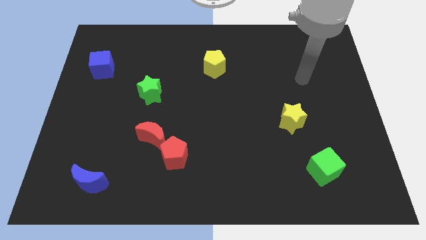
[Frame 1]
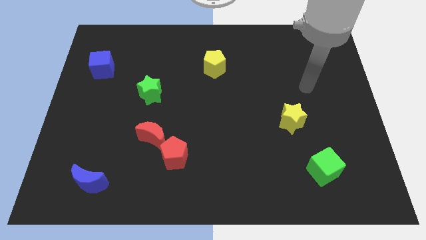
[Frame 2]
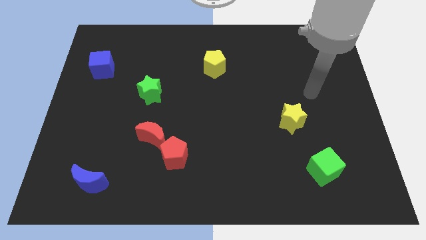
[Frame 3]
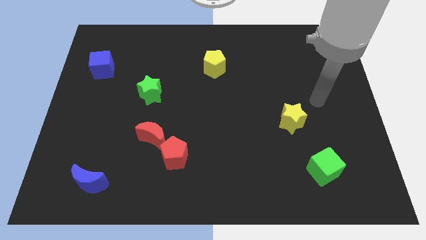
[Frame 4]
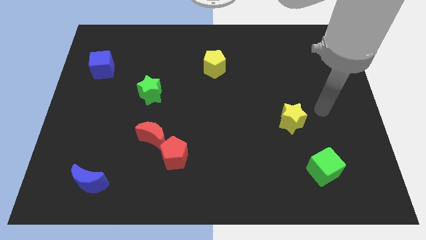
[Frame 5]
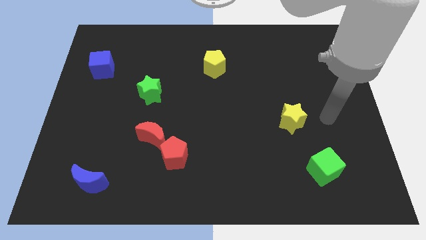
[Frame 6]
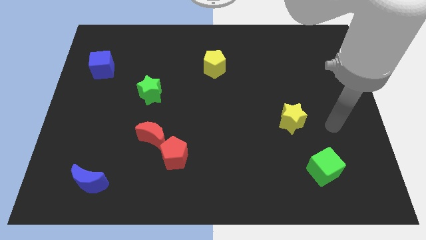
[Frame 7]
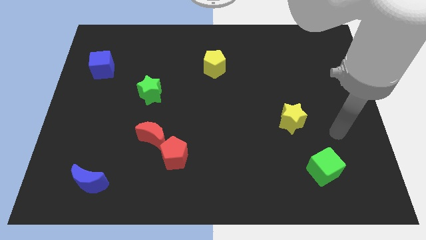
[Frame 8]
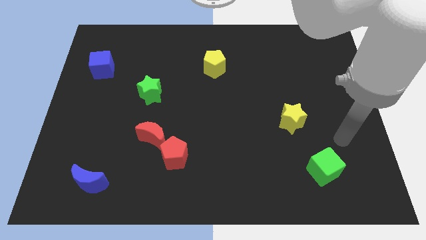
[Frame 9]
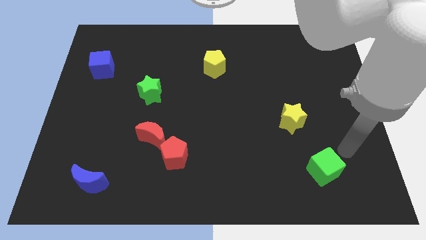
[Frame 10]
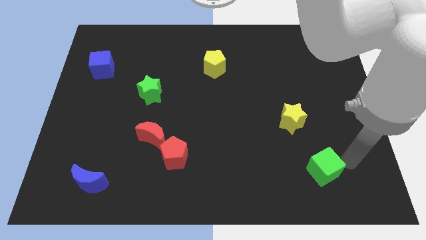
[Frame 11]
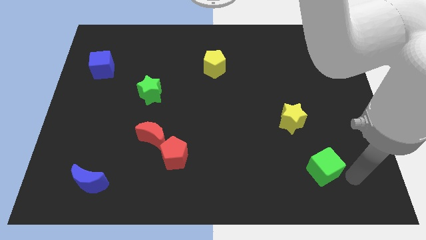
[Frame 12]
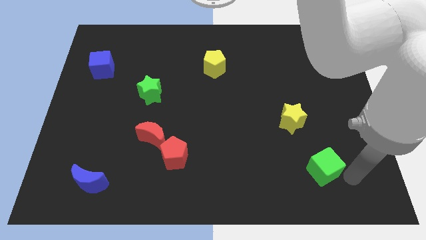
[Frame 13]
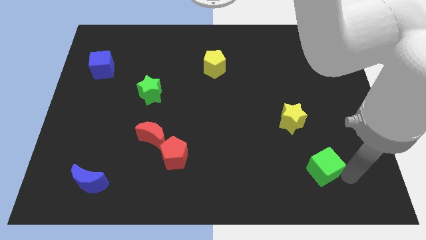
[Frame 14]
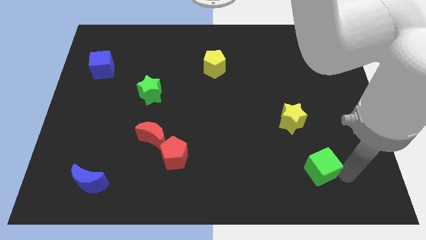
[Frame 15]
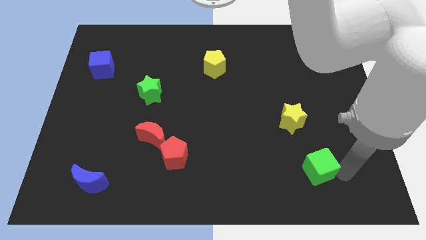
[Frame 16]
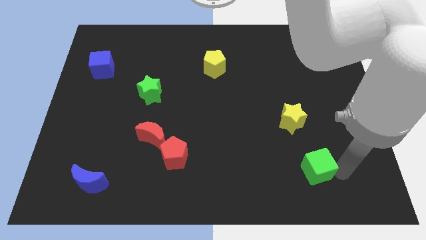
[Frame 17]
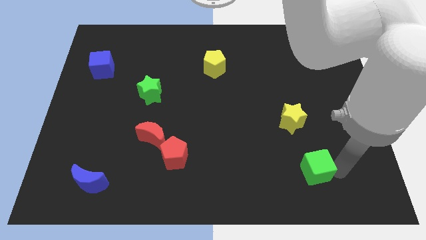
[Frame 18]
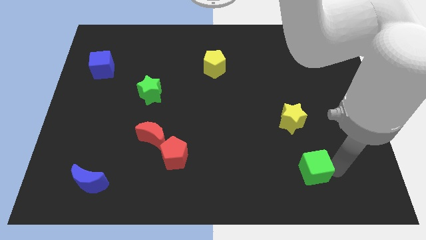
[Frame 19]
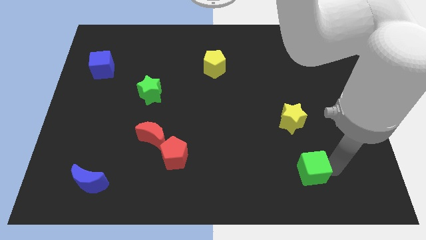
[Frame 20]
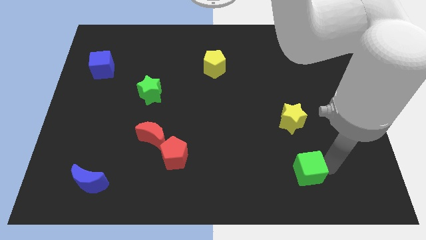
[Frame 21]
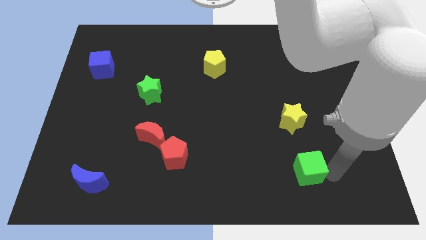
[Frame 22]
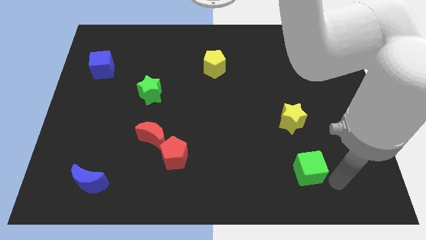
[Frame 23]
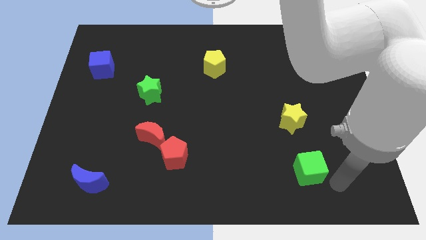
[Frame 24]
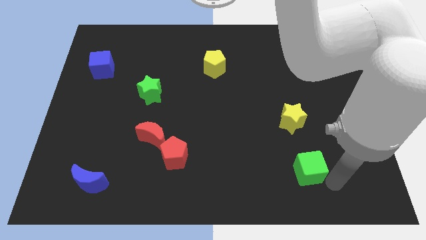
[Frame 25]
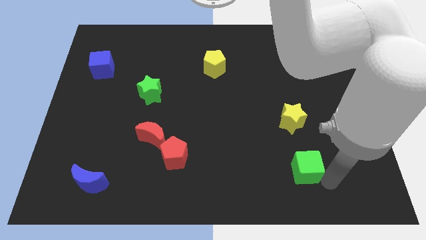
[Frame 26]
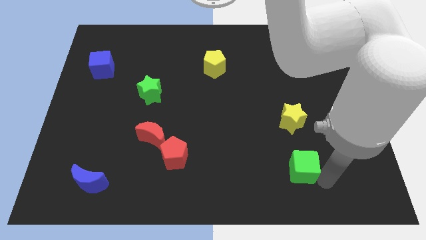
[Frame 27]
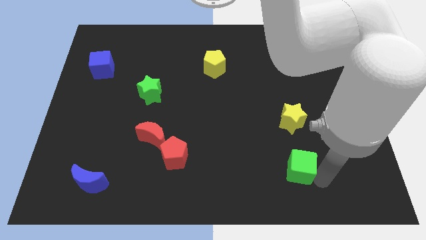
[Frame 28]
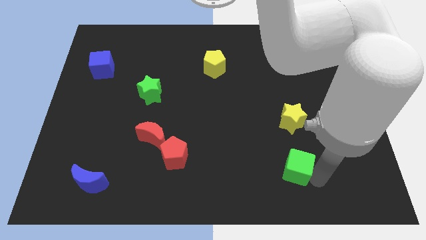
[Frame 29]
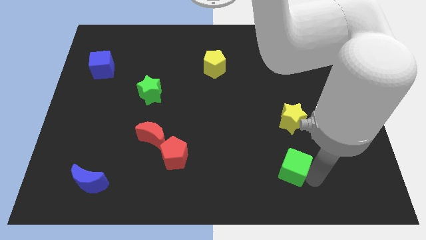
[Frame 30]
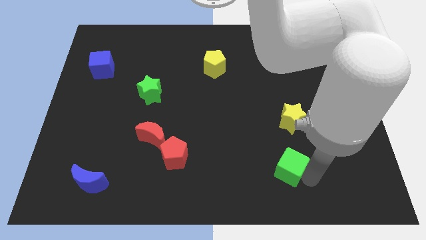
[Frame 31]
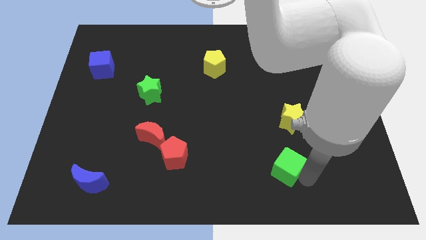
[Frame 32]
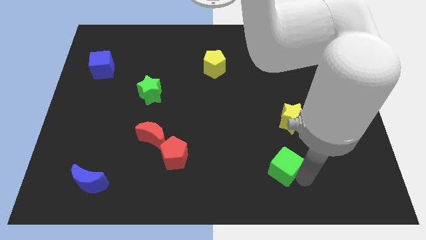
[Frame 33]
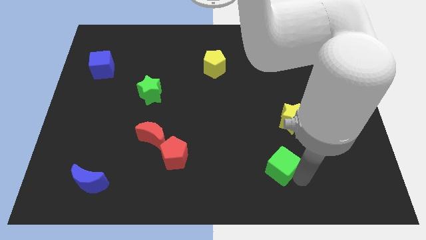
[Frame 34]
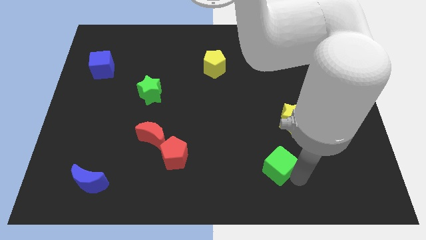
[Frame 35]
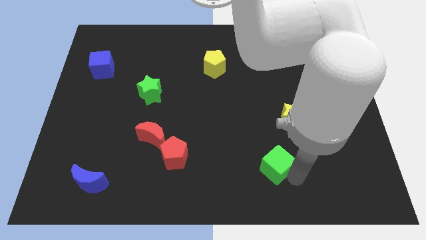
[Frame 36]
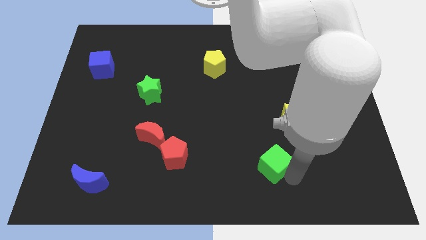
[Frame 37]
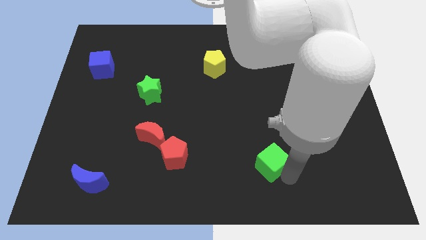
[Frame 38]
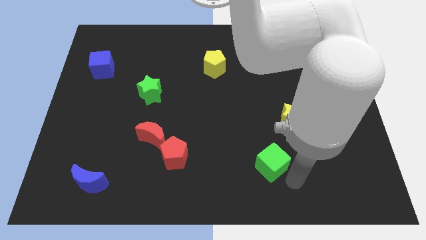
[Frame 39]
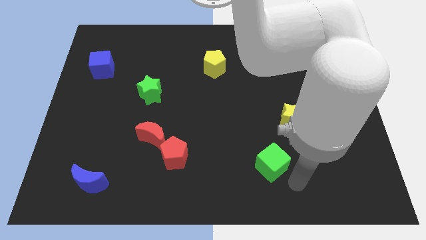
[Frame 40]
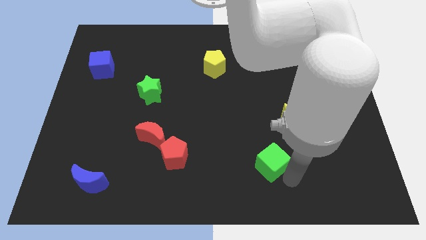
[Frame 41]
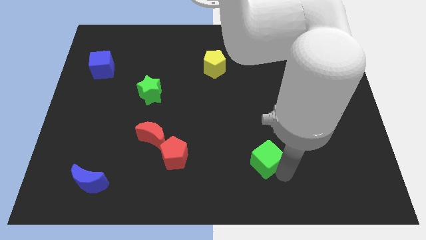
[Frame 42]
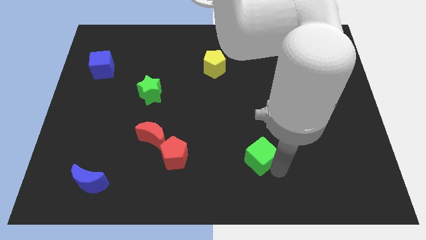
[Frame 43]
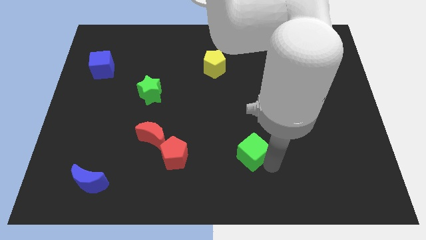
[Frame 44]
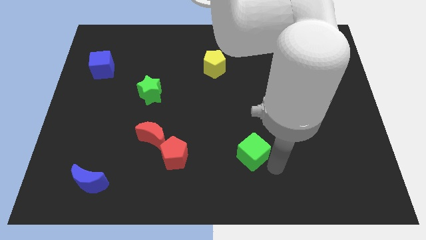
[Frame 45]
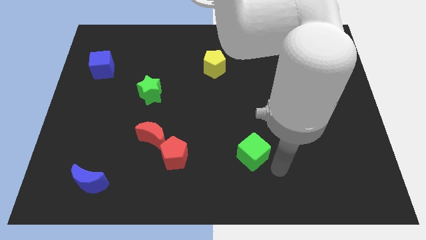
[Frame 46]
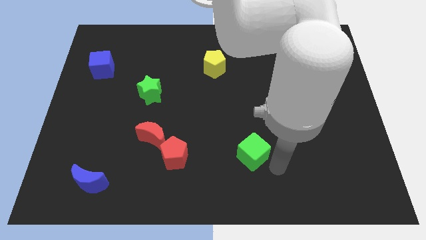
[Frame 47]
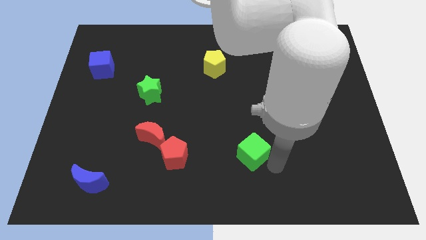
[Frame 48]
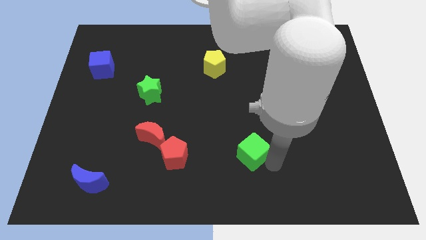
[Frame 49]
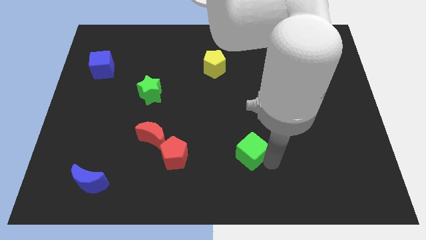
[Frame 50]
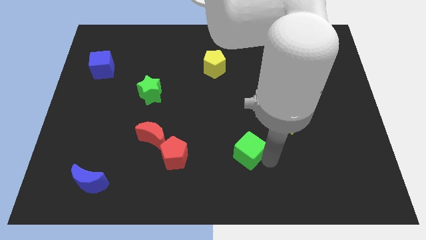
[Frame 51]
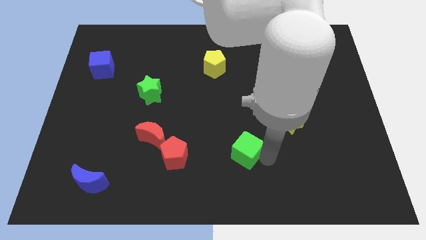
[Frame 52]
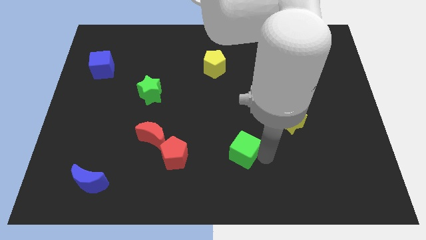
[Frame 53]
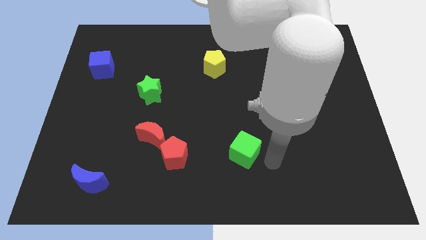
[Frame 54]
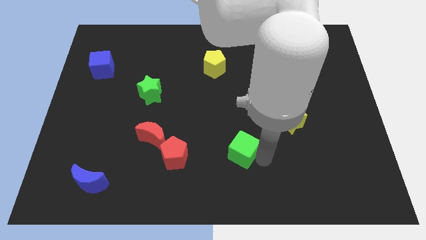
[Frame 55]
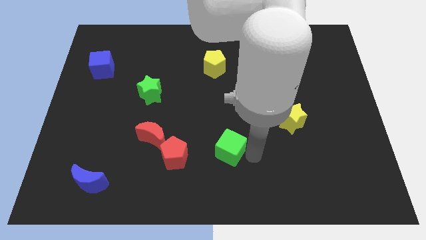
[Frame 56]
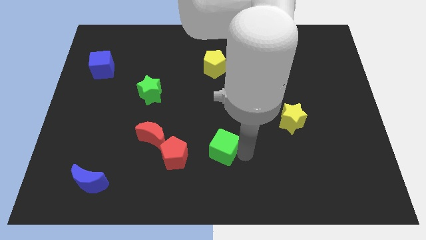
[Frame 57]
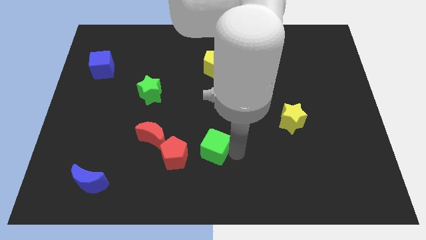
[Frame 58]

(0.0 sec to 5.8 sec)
push the green cube diagonally up and to the right of the red pentagon

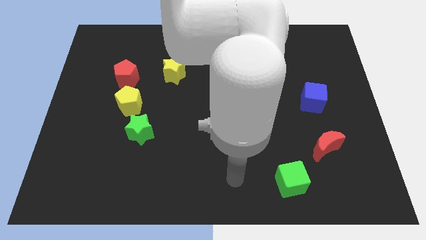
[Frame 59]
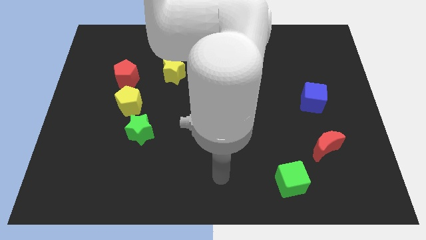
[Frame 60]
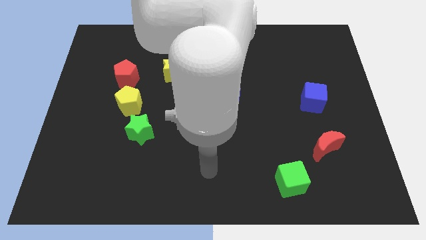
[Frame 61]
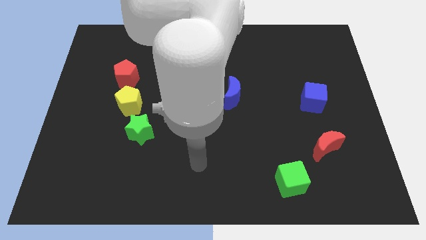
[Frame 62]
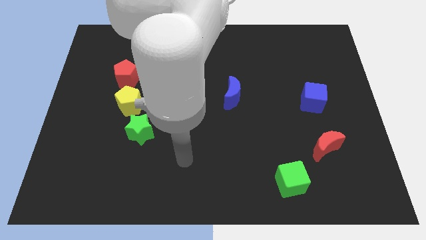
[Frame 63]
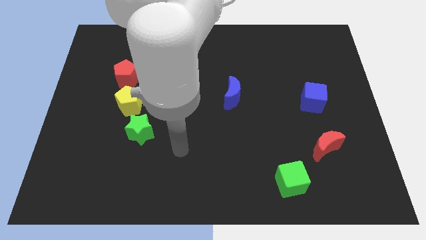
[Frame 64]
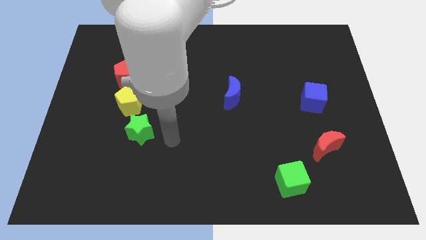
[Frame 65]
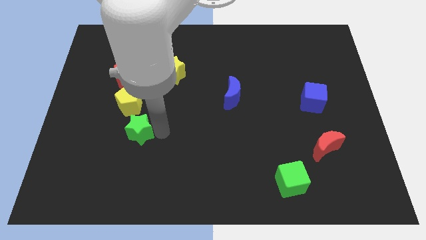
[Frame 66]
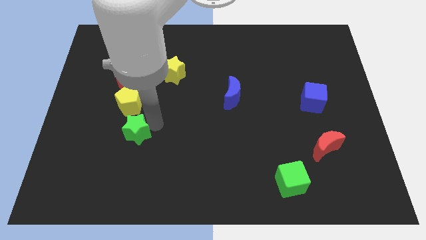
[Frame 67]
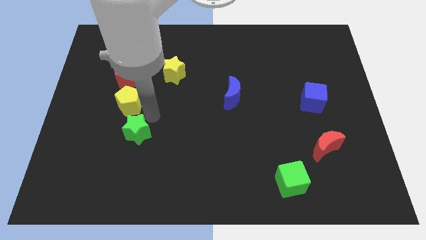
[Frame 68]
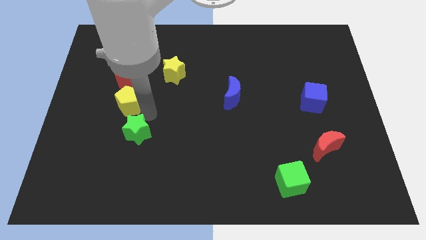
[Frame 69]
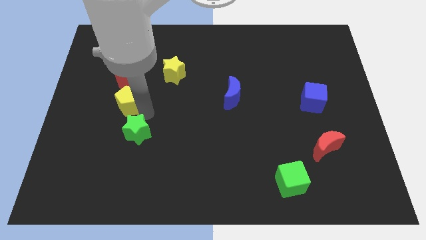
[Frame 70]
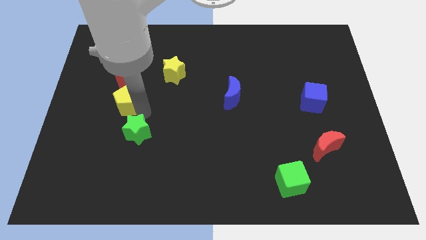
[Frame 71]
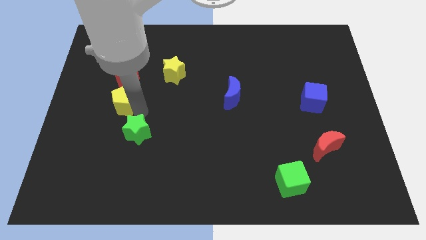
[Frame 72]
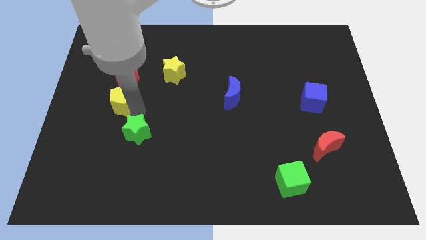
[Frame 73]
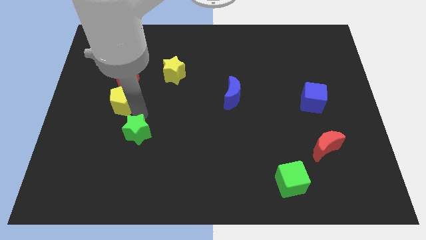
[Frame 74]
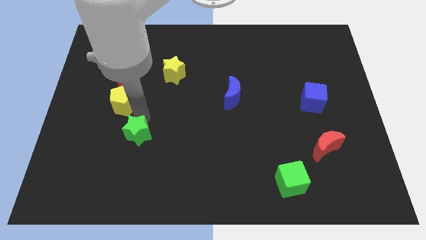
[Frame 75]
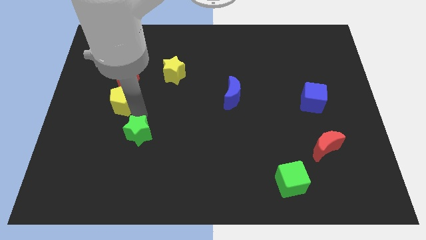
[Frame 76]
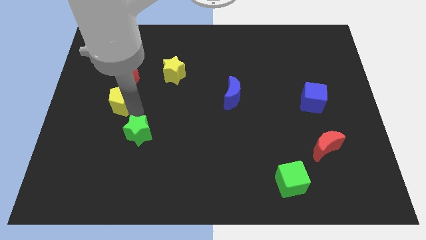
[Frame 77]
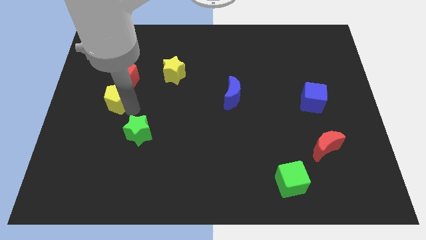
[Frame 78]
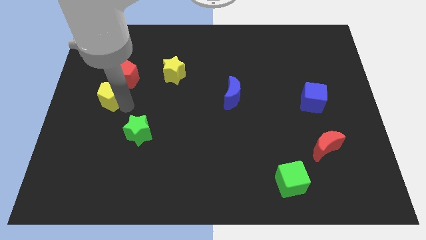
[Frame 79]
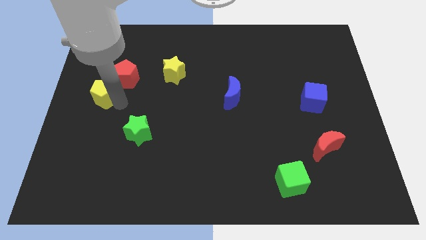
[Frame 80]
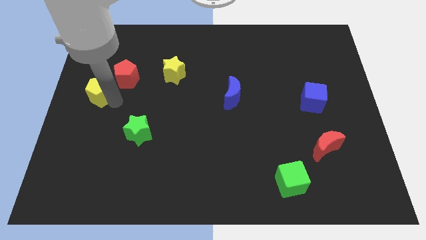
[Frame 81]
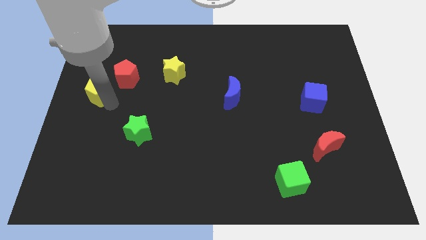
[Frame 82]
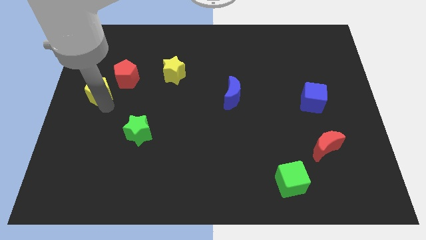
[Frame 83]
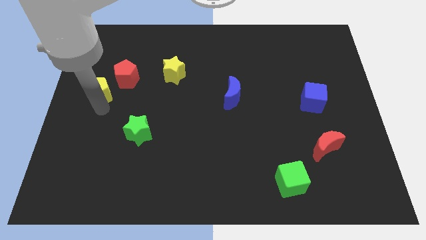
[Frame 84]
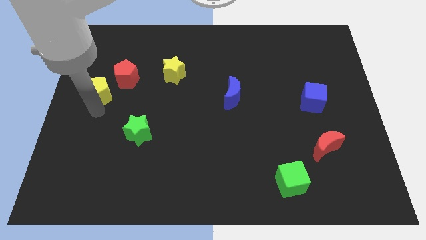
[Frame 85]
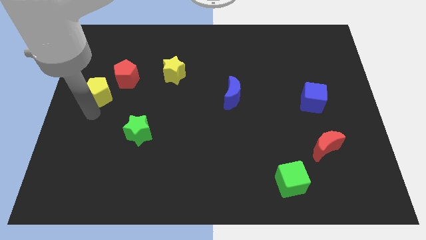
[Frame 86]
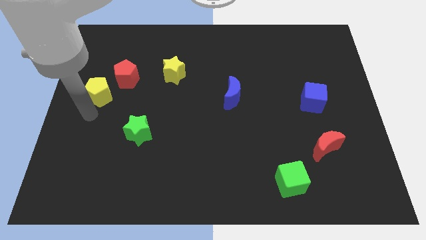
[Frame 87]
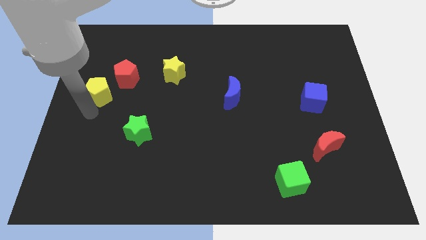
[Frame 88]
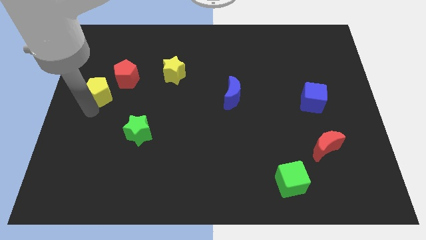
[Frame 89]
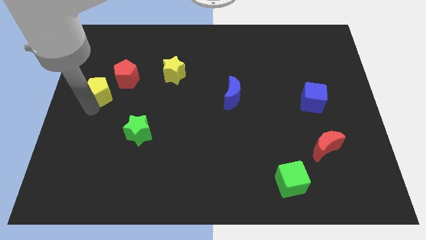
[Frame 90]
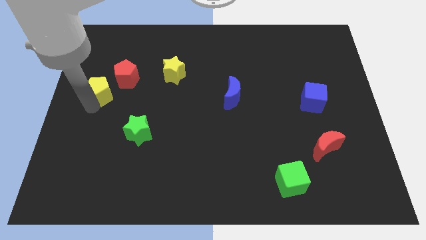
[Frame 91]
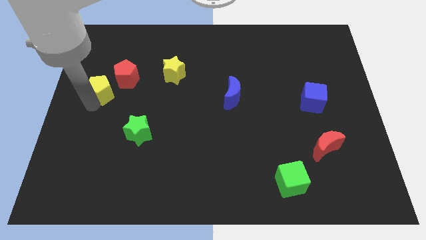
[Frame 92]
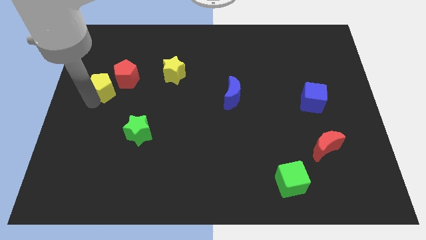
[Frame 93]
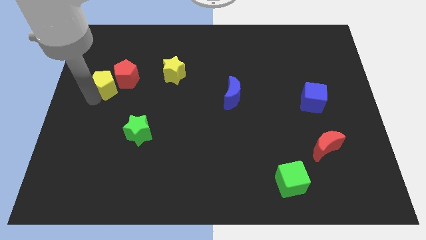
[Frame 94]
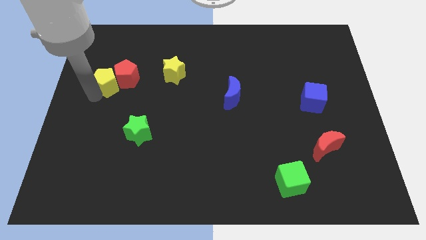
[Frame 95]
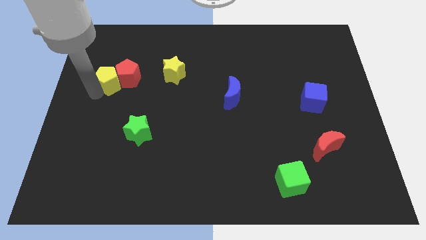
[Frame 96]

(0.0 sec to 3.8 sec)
slide the yellow pentagon to the top left side of the red pentagon
